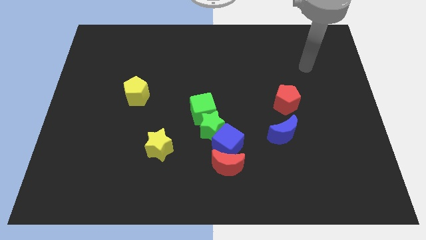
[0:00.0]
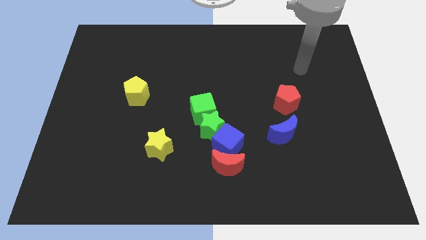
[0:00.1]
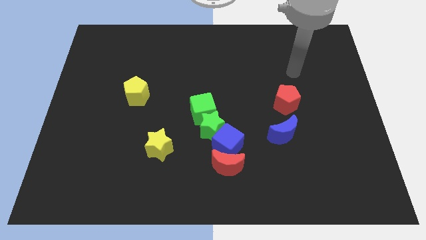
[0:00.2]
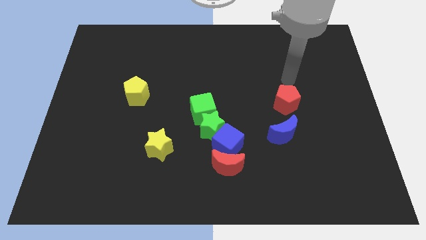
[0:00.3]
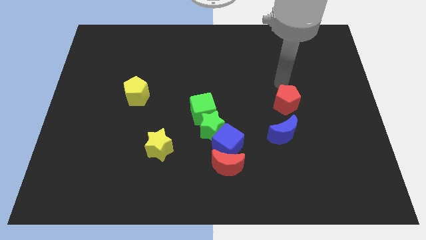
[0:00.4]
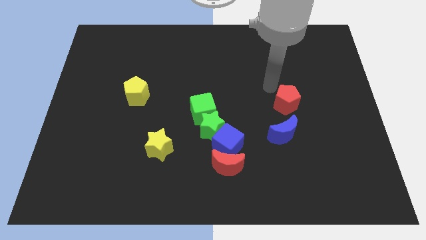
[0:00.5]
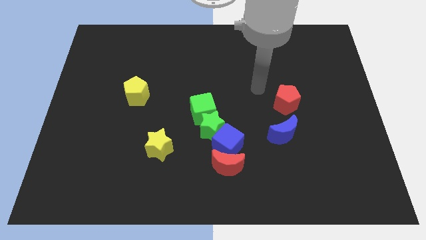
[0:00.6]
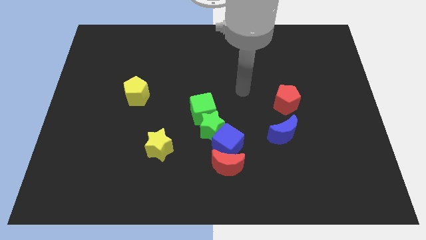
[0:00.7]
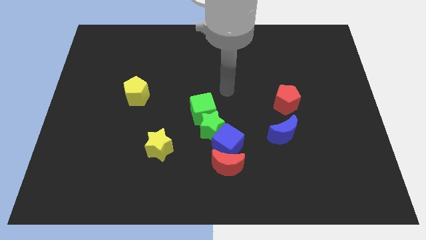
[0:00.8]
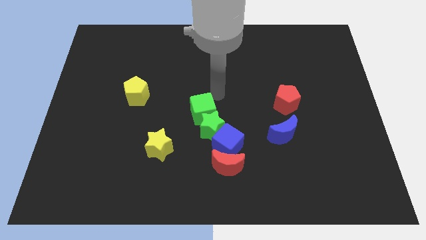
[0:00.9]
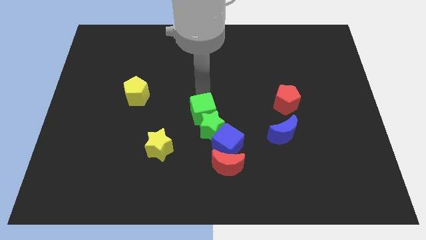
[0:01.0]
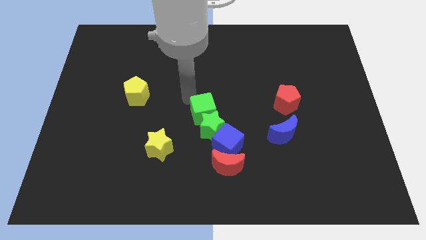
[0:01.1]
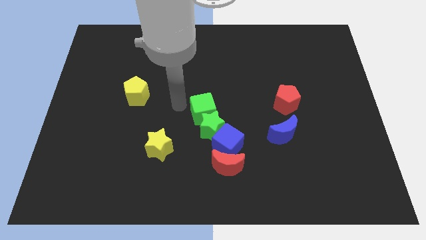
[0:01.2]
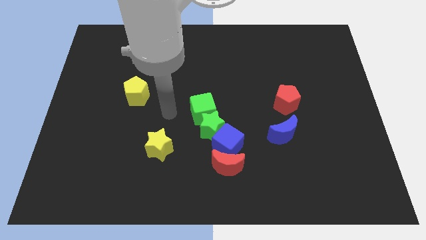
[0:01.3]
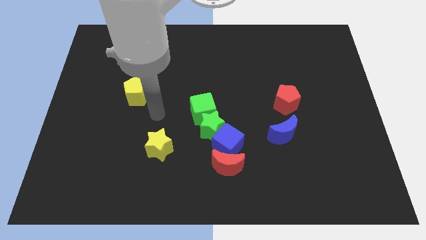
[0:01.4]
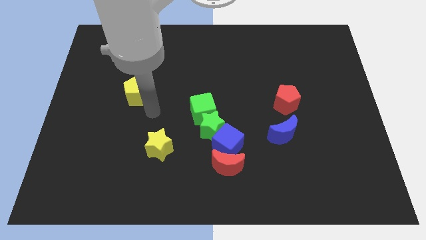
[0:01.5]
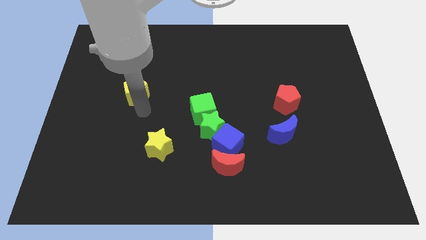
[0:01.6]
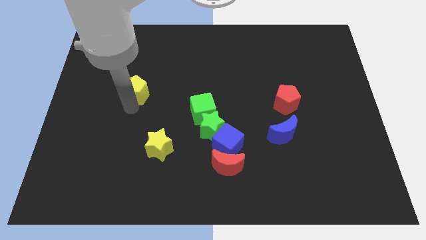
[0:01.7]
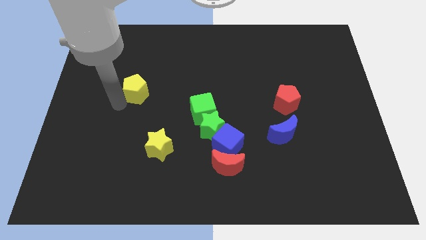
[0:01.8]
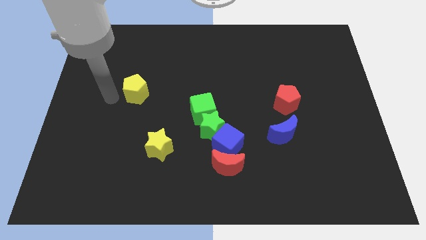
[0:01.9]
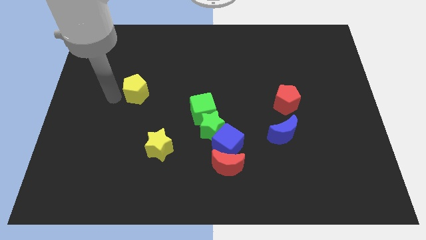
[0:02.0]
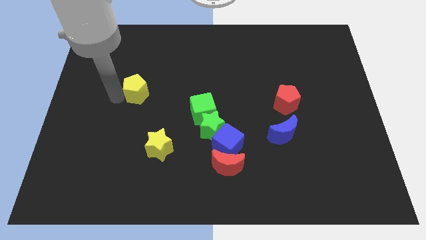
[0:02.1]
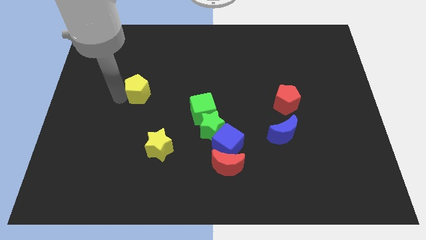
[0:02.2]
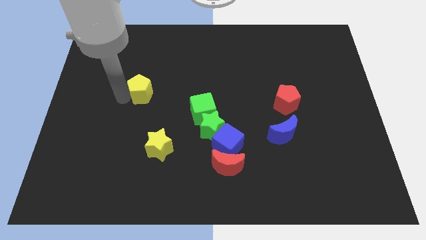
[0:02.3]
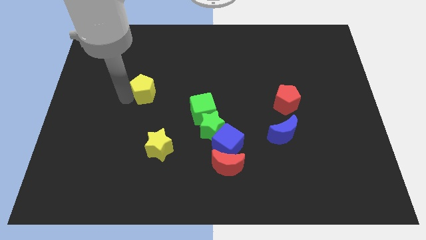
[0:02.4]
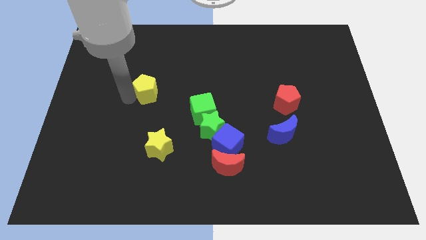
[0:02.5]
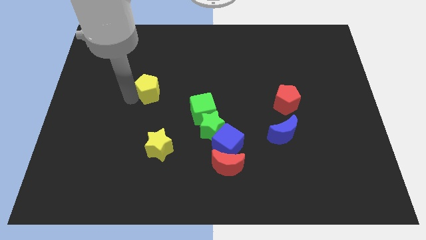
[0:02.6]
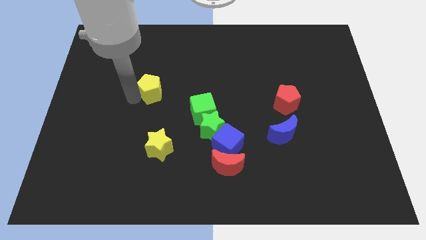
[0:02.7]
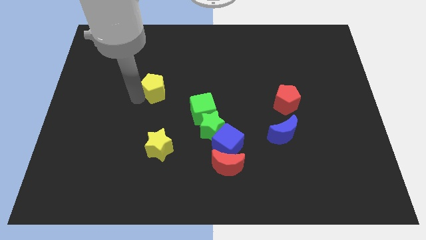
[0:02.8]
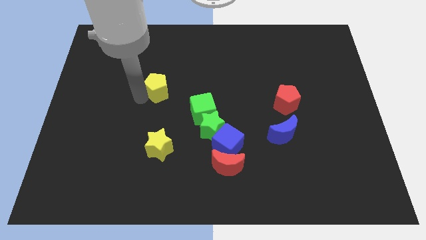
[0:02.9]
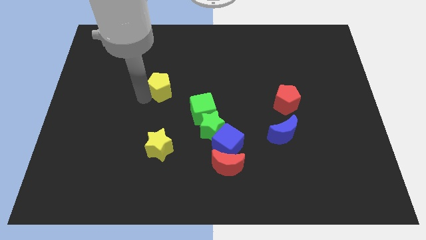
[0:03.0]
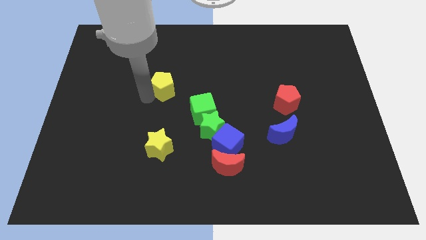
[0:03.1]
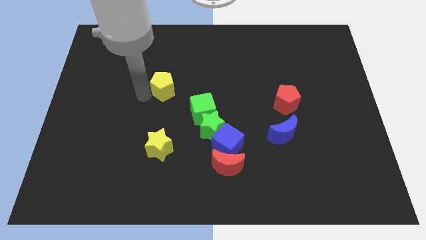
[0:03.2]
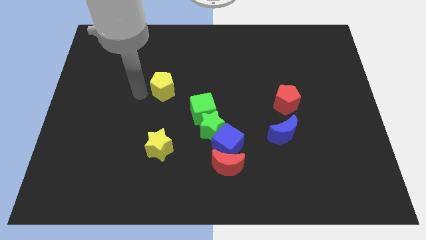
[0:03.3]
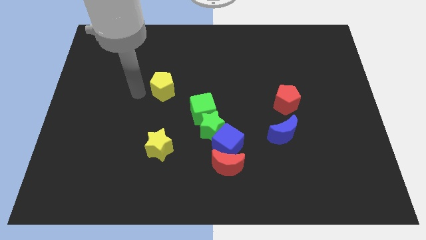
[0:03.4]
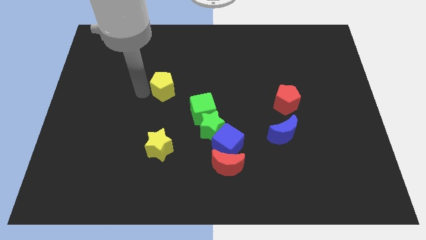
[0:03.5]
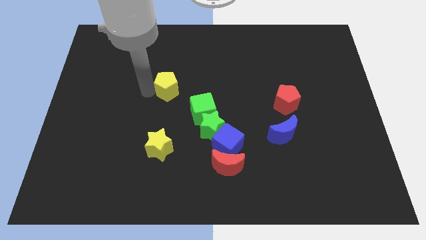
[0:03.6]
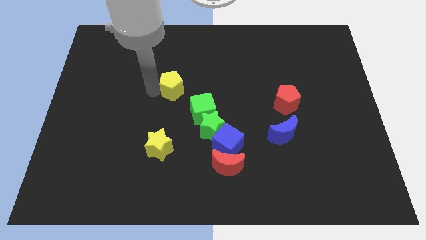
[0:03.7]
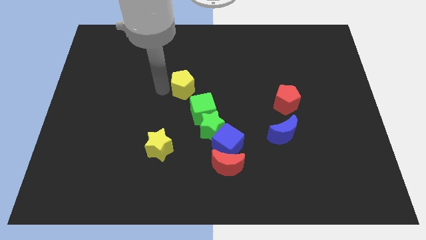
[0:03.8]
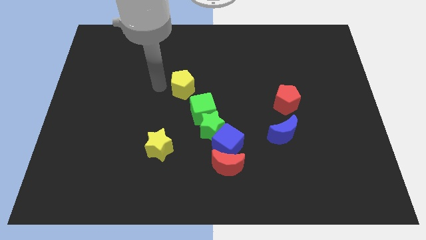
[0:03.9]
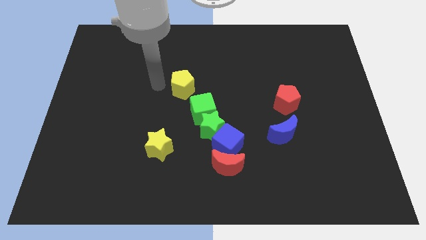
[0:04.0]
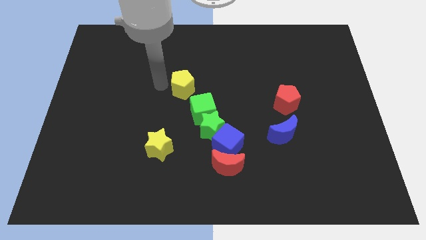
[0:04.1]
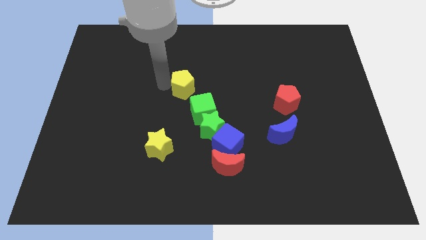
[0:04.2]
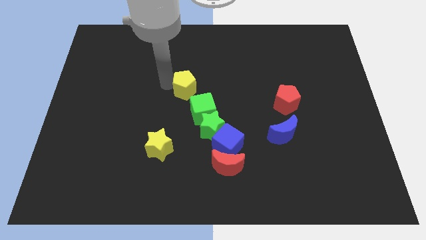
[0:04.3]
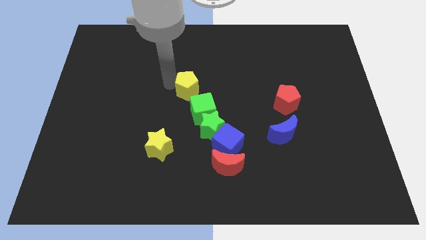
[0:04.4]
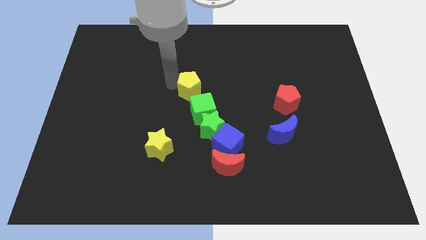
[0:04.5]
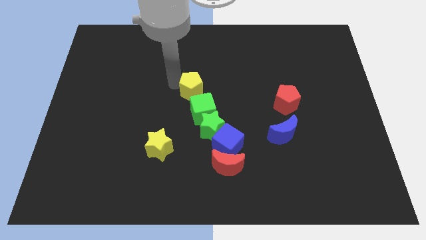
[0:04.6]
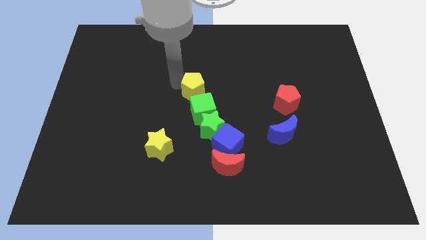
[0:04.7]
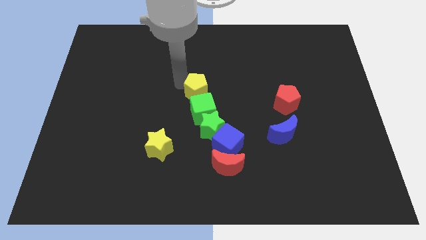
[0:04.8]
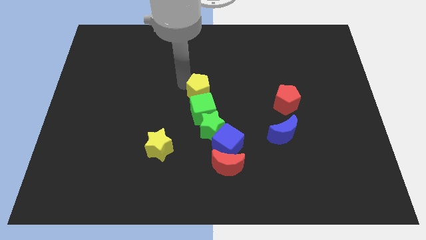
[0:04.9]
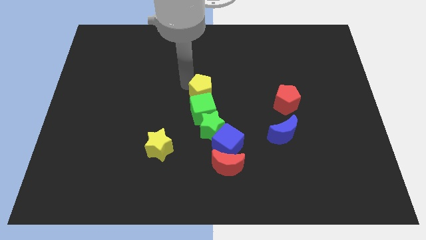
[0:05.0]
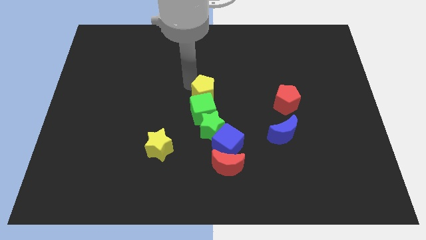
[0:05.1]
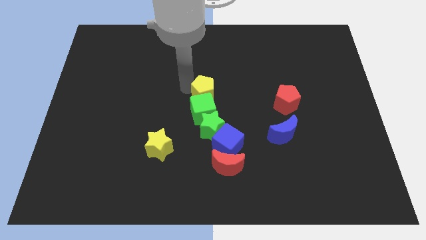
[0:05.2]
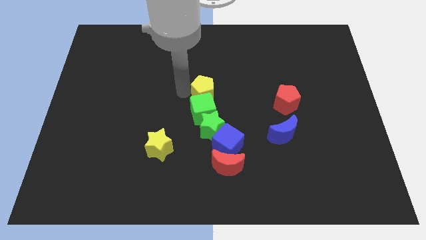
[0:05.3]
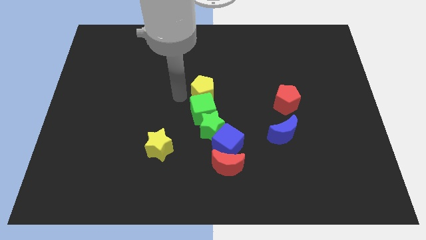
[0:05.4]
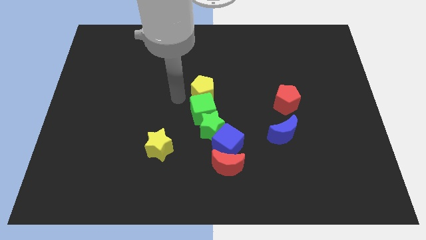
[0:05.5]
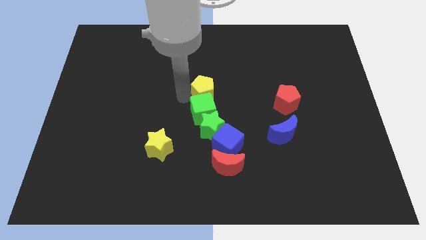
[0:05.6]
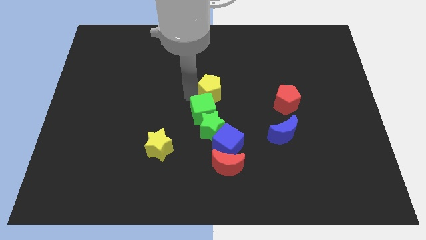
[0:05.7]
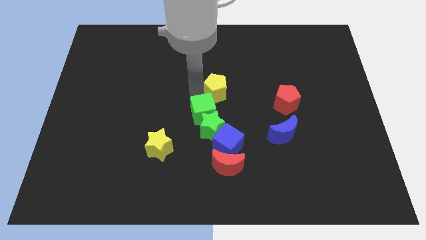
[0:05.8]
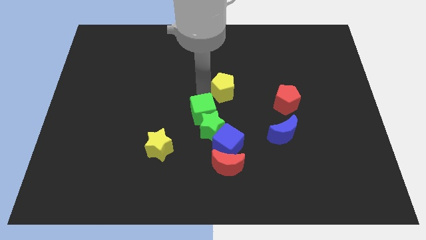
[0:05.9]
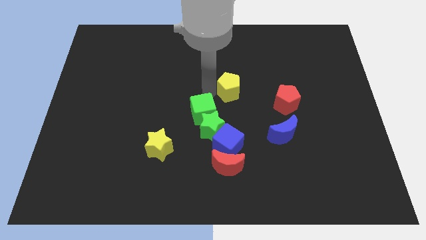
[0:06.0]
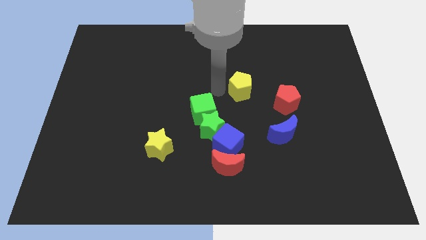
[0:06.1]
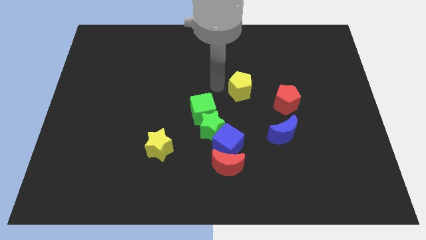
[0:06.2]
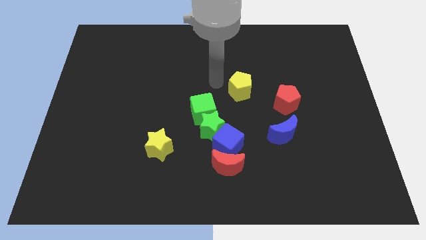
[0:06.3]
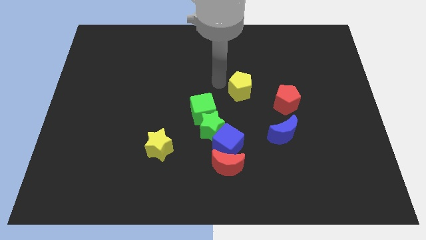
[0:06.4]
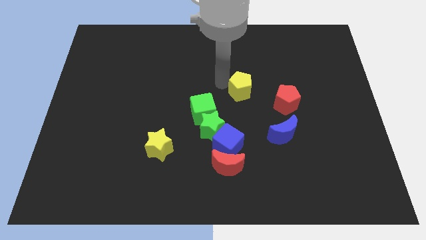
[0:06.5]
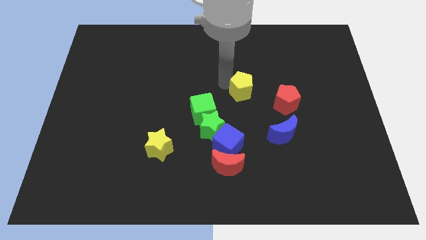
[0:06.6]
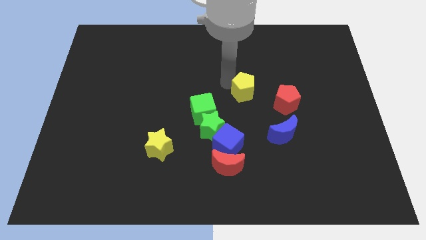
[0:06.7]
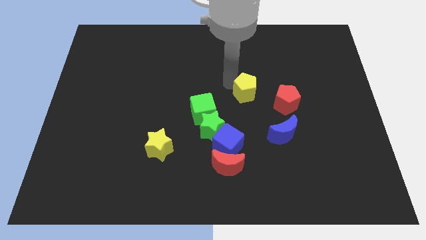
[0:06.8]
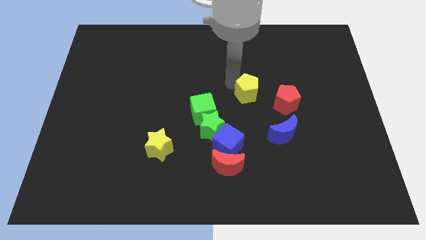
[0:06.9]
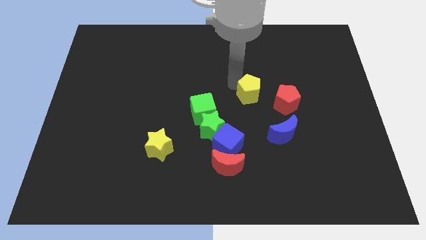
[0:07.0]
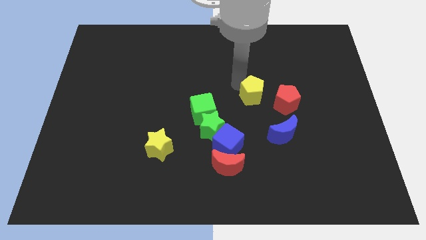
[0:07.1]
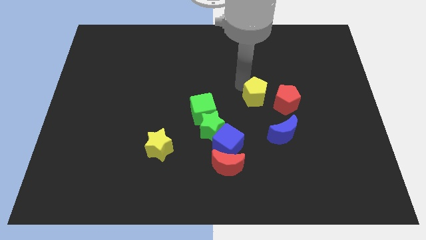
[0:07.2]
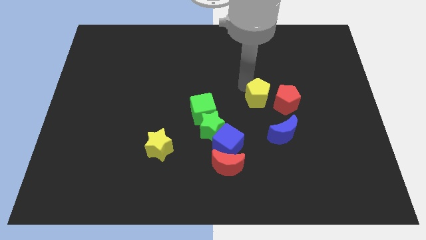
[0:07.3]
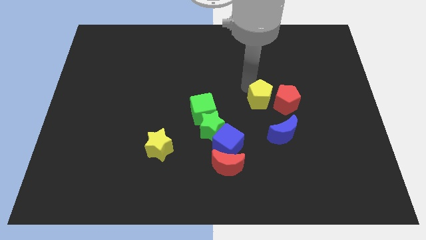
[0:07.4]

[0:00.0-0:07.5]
put the yellow pentagon next to the red pentagon
